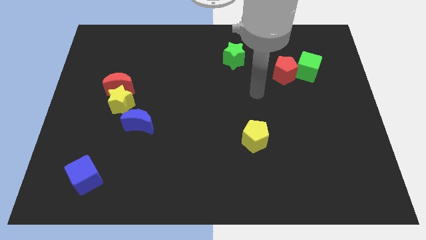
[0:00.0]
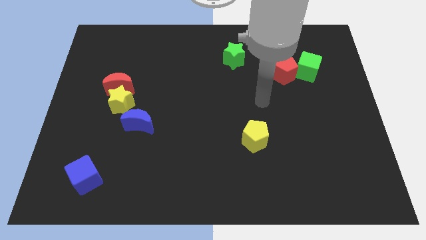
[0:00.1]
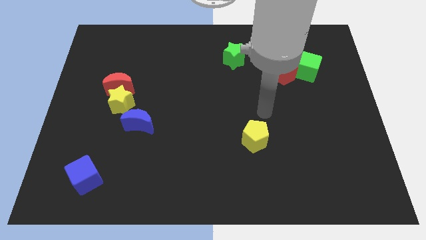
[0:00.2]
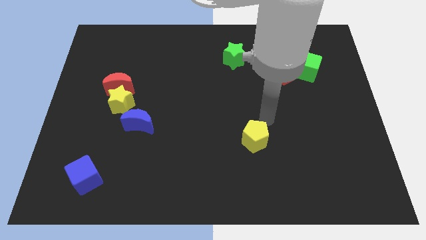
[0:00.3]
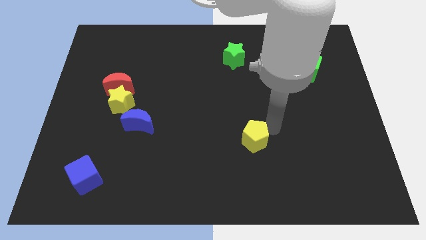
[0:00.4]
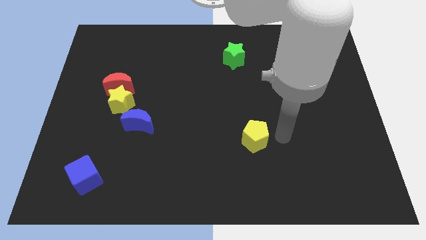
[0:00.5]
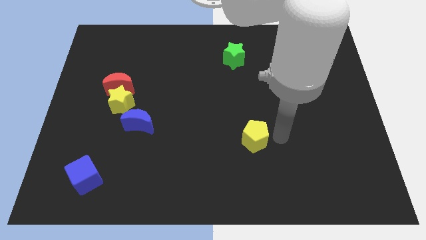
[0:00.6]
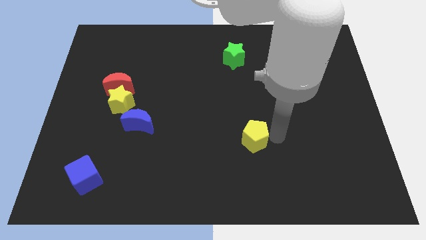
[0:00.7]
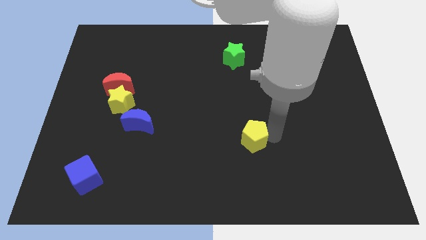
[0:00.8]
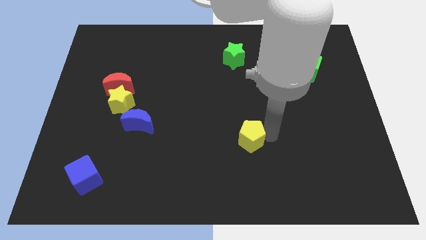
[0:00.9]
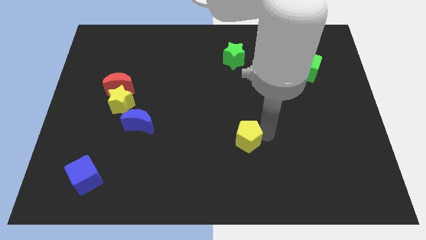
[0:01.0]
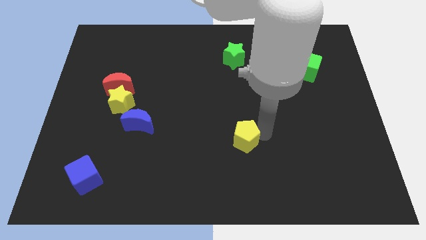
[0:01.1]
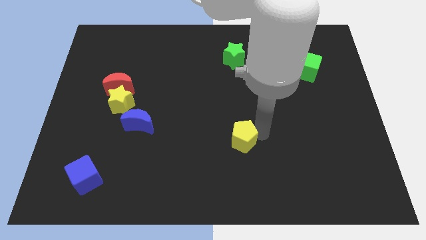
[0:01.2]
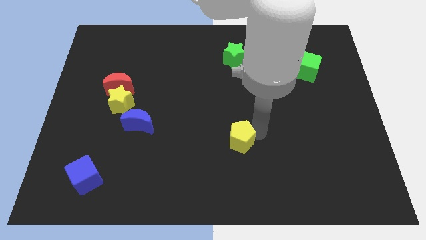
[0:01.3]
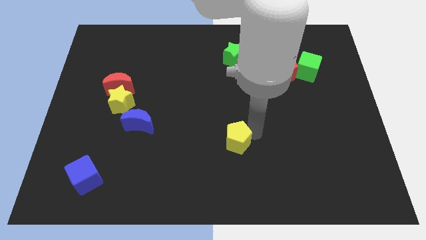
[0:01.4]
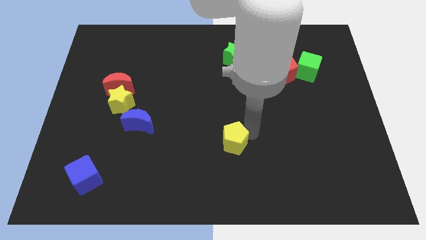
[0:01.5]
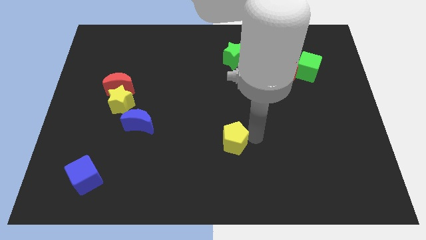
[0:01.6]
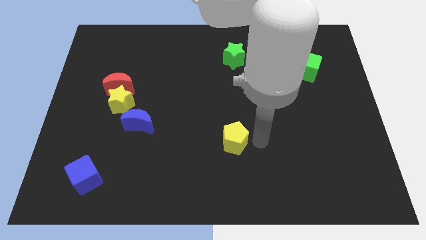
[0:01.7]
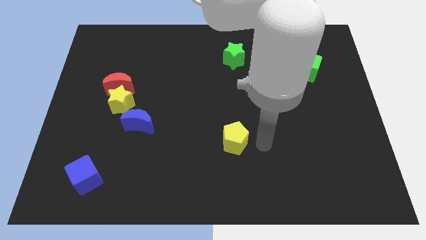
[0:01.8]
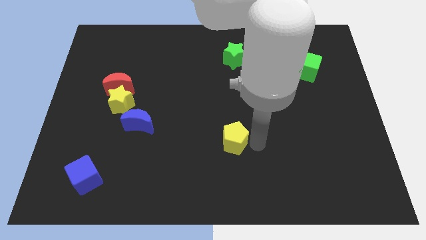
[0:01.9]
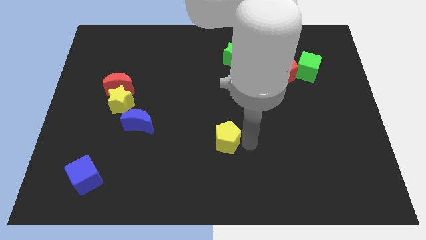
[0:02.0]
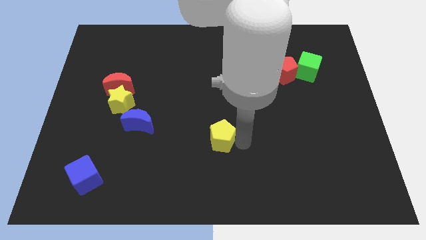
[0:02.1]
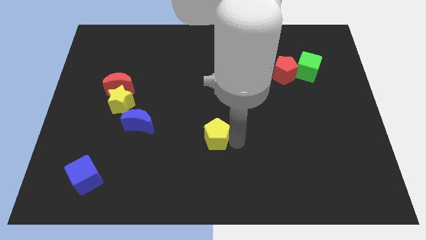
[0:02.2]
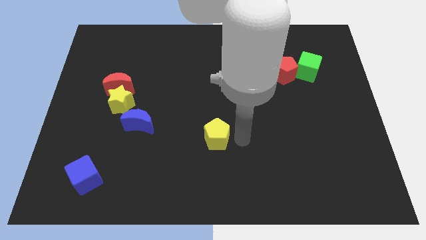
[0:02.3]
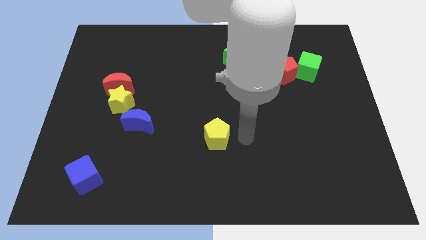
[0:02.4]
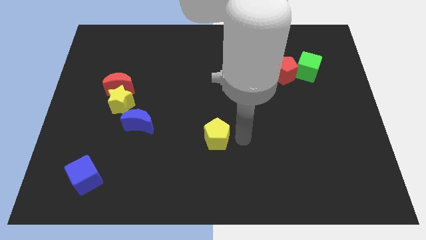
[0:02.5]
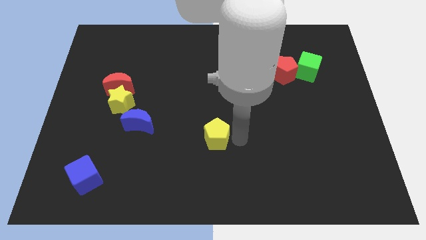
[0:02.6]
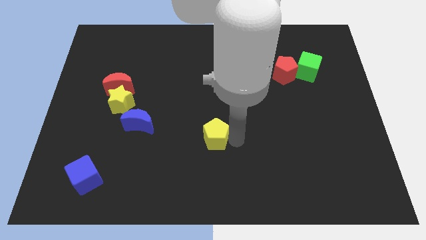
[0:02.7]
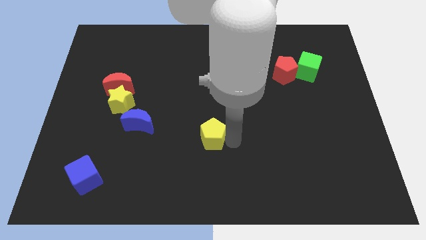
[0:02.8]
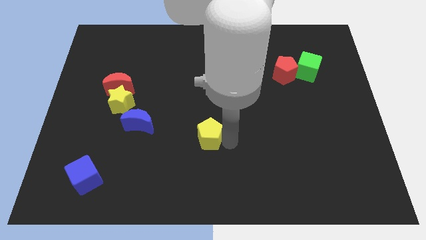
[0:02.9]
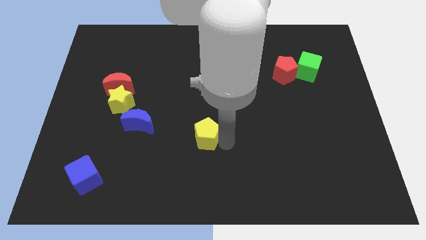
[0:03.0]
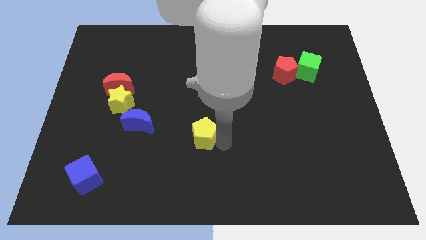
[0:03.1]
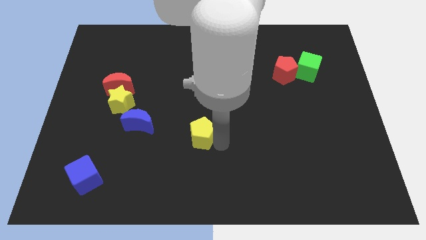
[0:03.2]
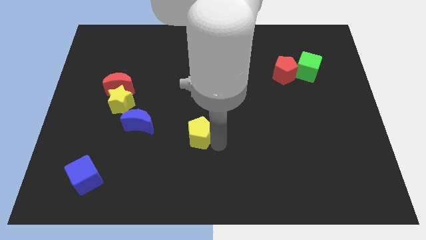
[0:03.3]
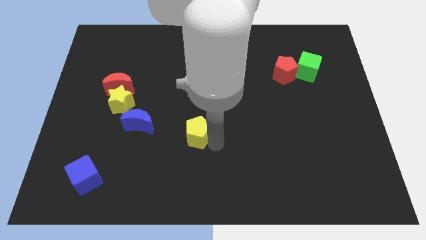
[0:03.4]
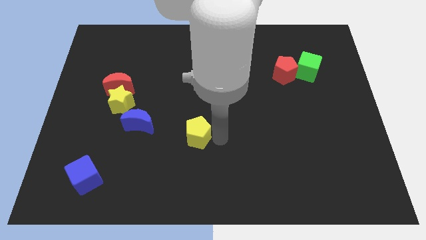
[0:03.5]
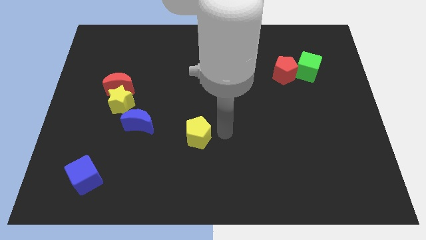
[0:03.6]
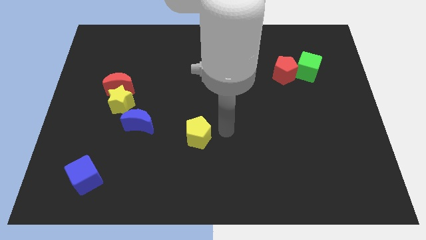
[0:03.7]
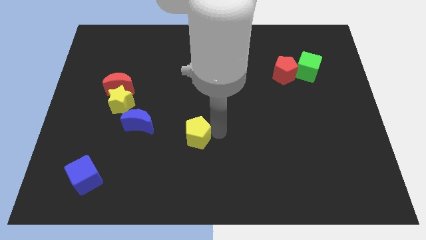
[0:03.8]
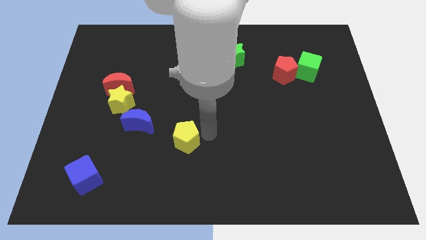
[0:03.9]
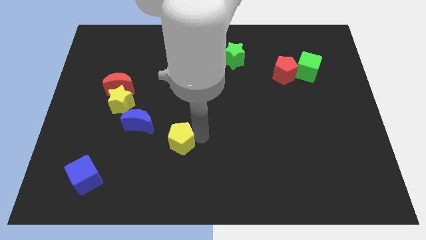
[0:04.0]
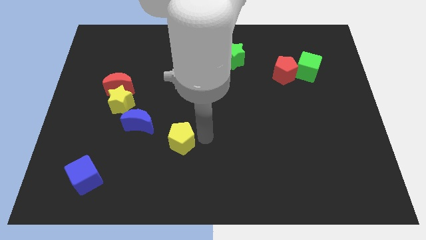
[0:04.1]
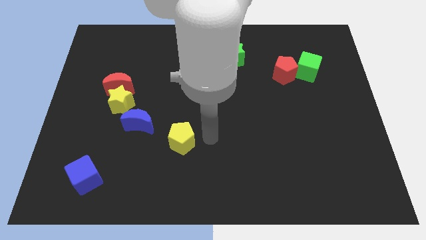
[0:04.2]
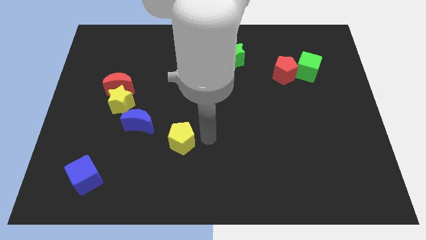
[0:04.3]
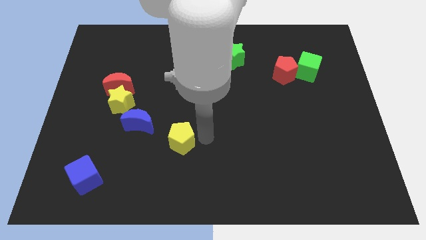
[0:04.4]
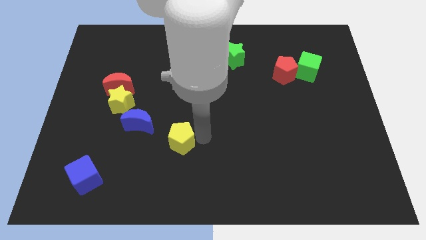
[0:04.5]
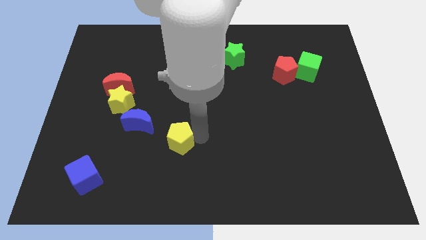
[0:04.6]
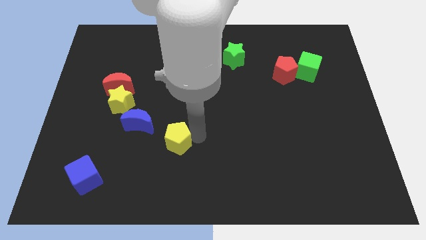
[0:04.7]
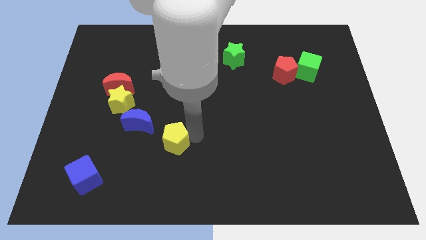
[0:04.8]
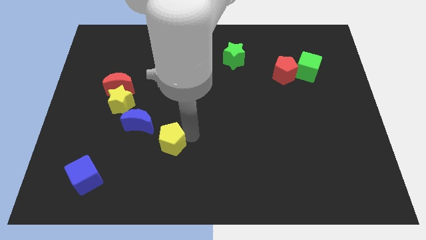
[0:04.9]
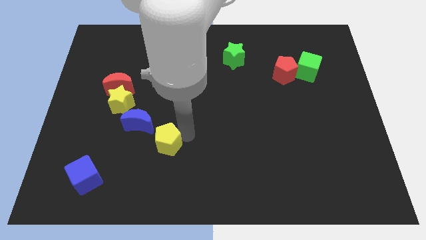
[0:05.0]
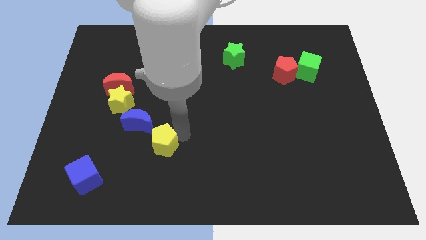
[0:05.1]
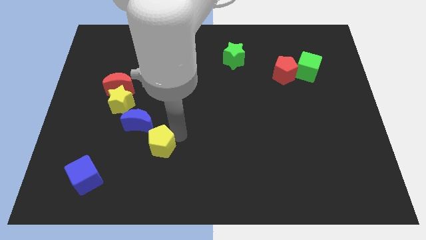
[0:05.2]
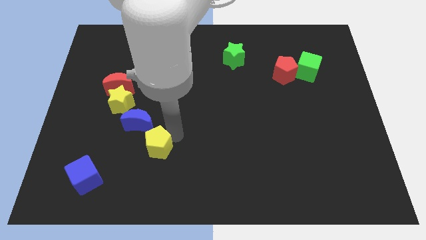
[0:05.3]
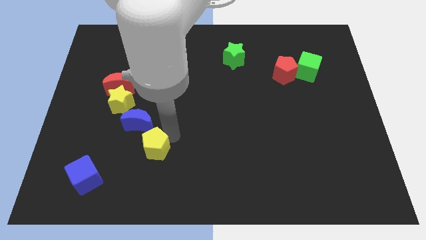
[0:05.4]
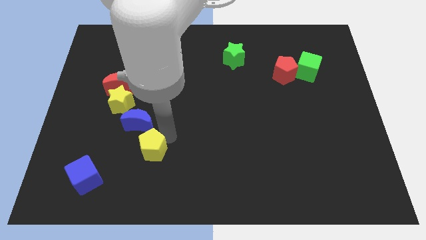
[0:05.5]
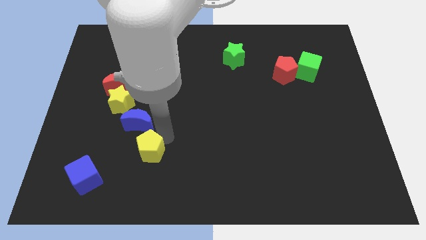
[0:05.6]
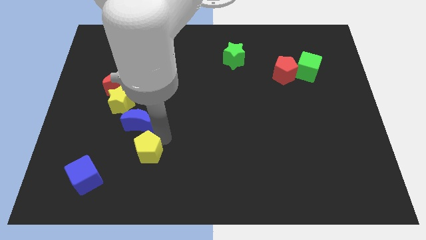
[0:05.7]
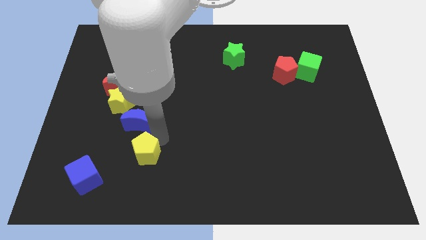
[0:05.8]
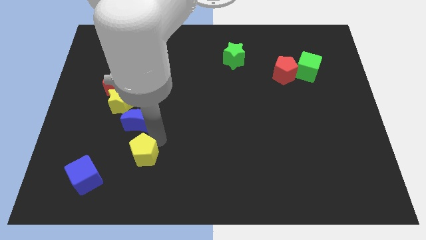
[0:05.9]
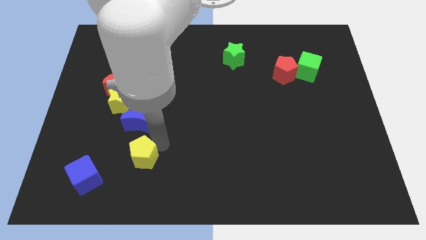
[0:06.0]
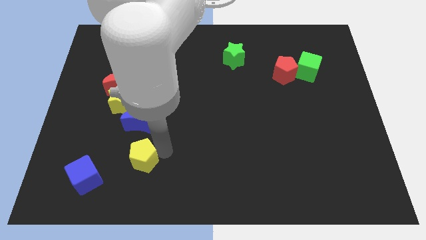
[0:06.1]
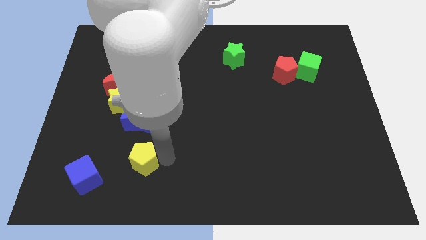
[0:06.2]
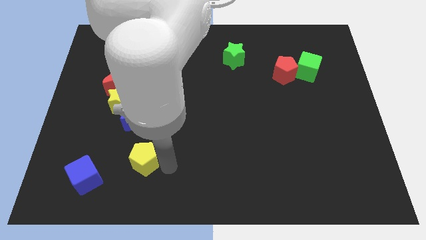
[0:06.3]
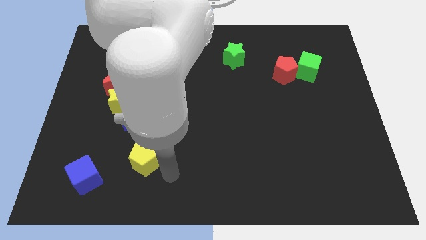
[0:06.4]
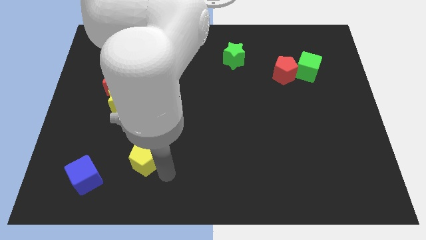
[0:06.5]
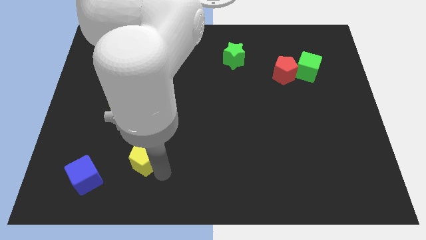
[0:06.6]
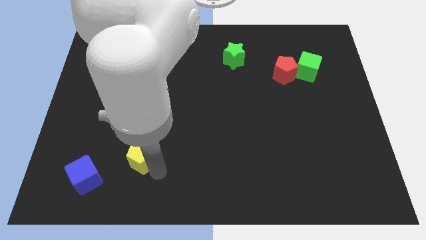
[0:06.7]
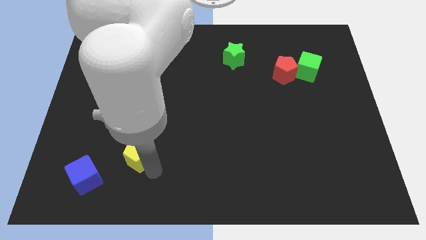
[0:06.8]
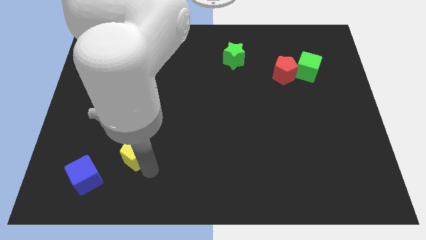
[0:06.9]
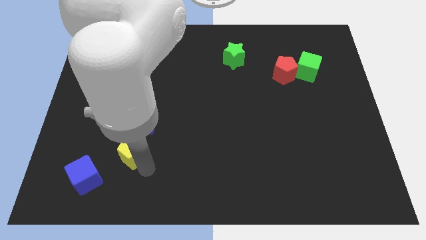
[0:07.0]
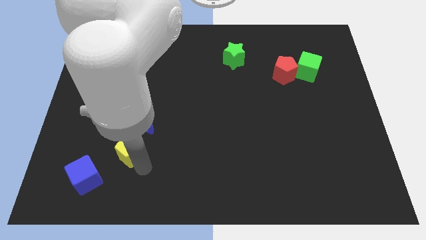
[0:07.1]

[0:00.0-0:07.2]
move the yellow pentagon to the bottom left of the blue moon
